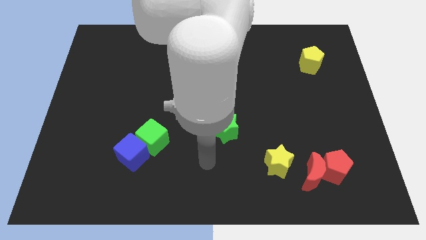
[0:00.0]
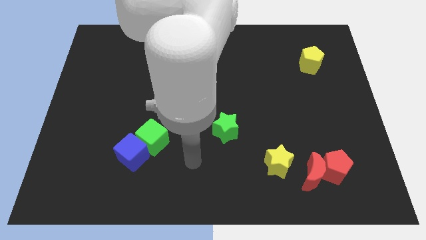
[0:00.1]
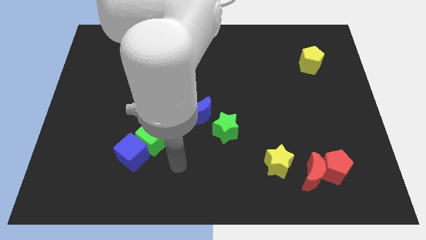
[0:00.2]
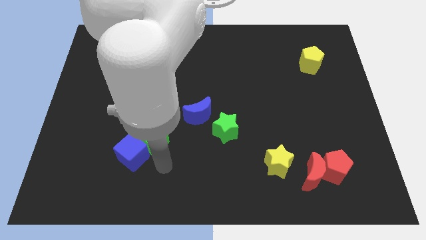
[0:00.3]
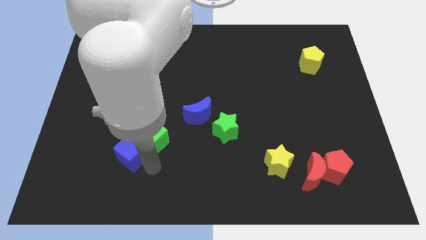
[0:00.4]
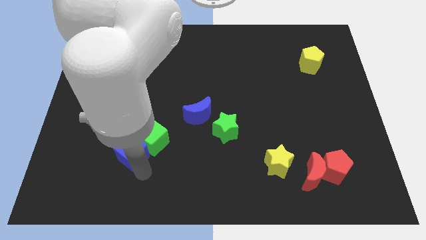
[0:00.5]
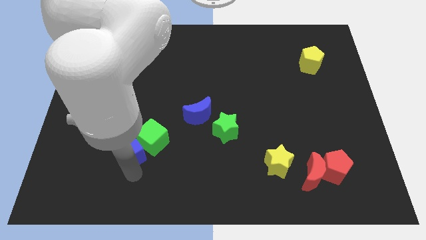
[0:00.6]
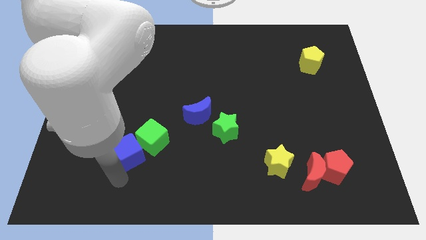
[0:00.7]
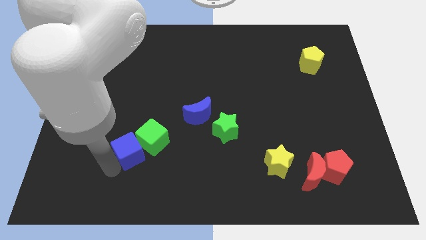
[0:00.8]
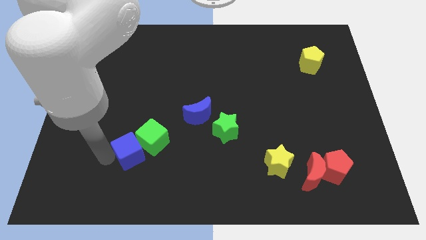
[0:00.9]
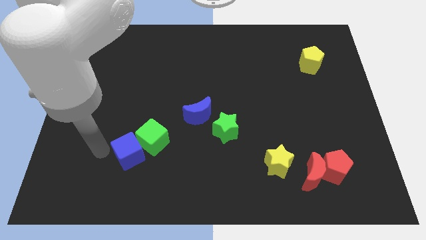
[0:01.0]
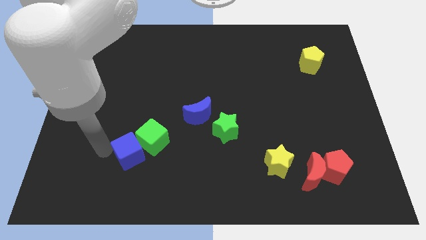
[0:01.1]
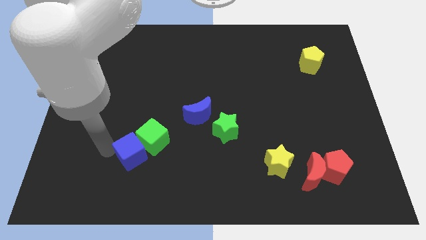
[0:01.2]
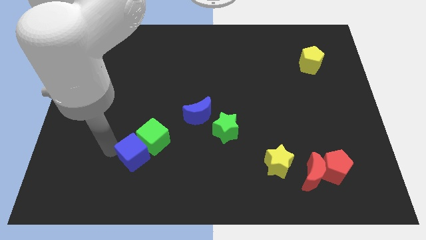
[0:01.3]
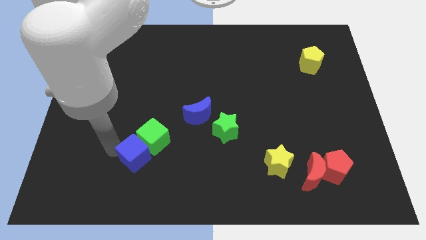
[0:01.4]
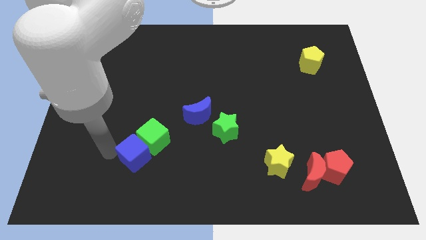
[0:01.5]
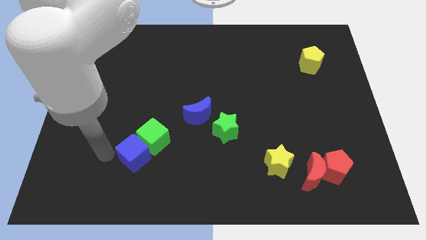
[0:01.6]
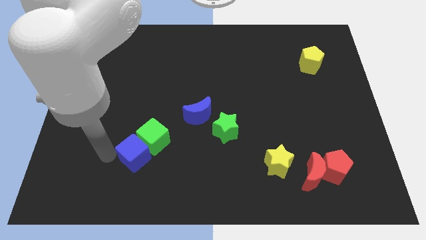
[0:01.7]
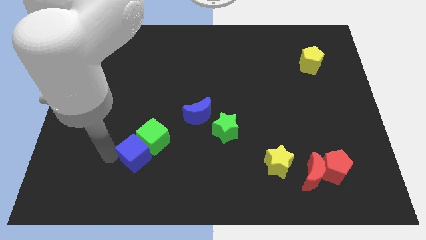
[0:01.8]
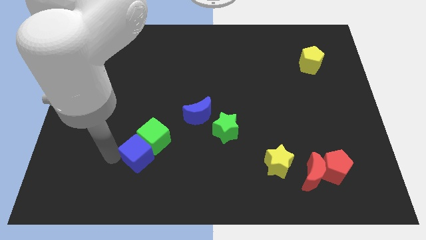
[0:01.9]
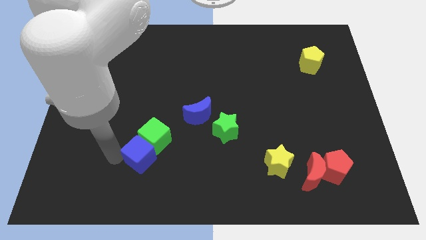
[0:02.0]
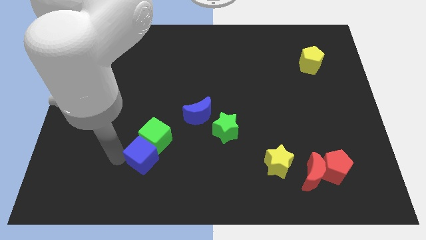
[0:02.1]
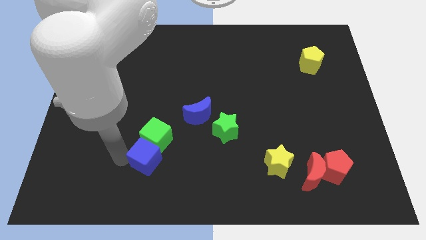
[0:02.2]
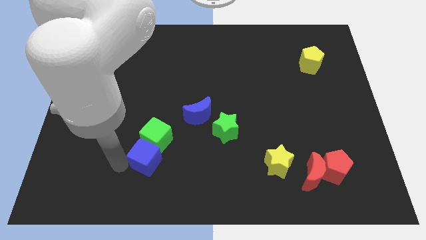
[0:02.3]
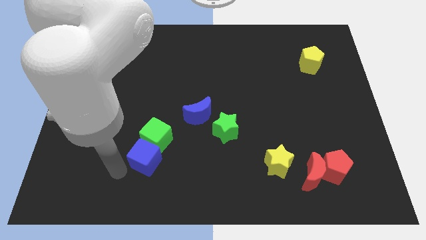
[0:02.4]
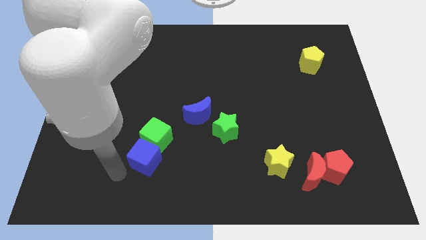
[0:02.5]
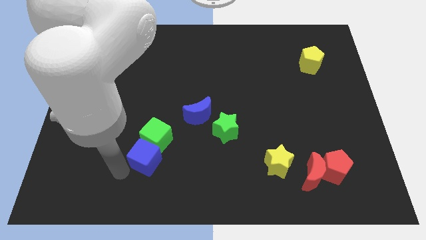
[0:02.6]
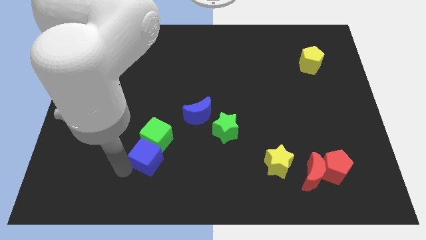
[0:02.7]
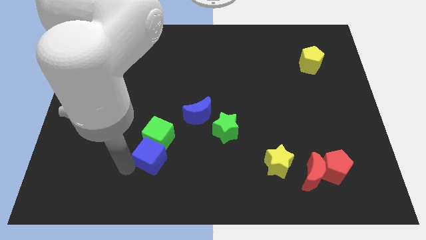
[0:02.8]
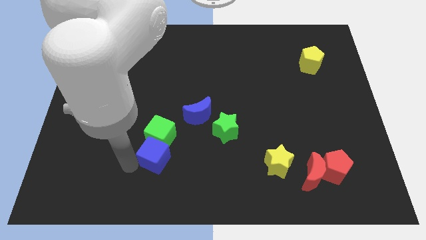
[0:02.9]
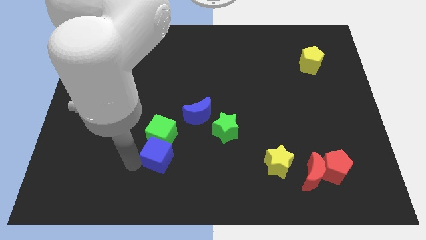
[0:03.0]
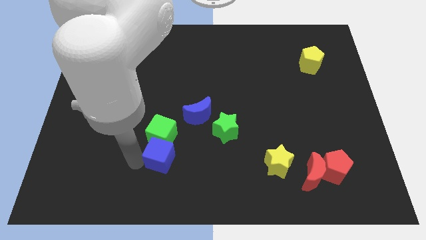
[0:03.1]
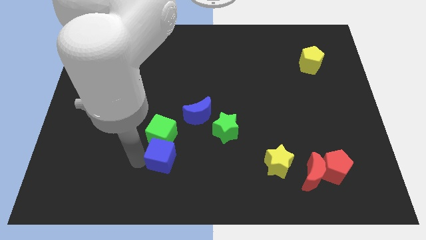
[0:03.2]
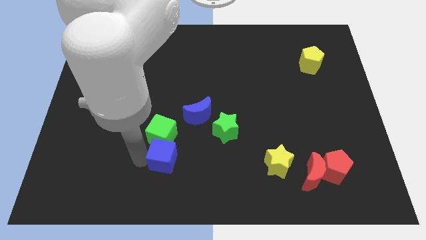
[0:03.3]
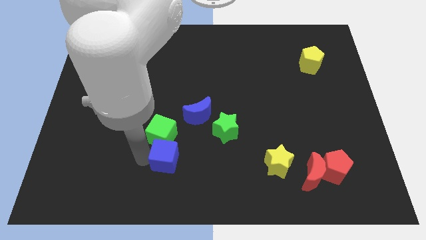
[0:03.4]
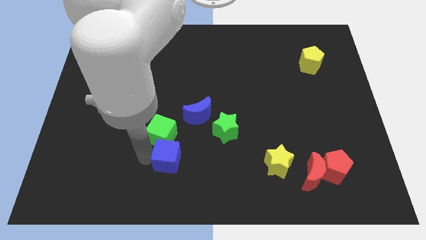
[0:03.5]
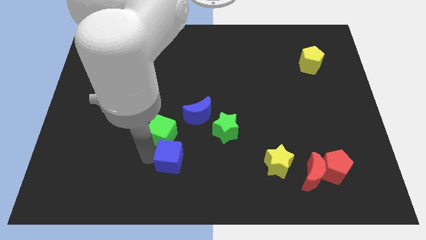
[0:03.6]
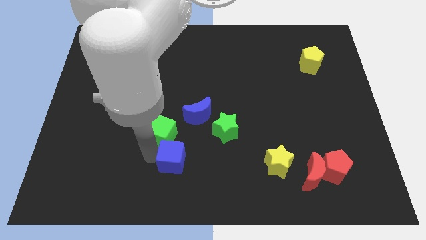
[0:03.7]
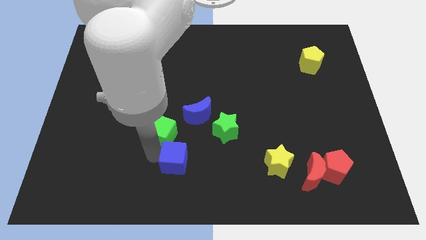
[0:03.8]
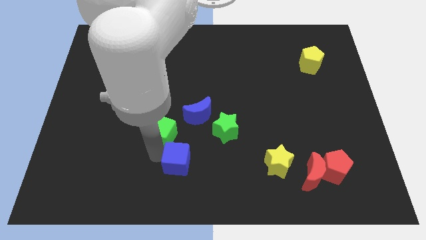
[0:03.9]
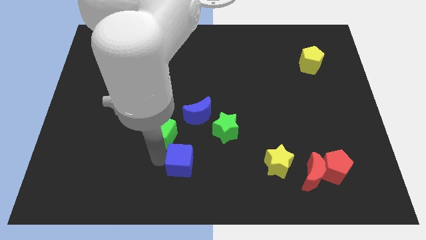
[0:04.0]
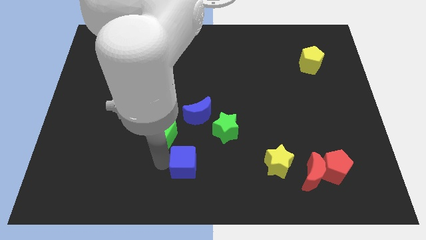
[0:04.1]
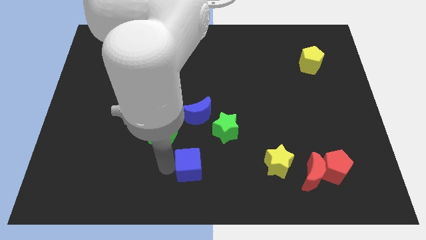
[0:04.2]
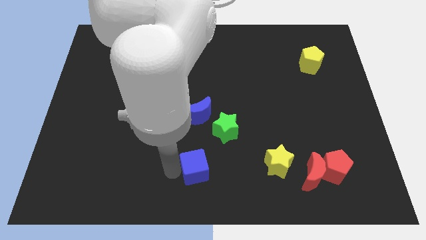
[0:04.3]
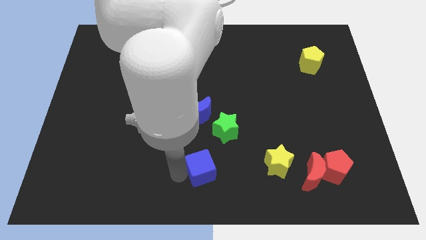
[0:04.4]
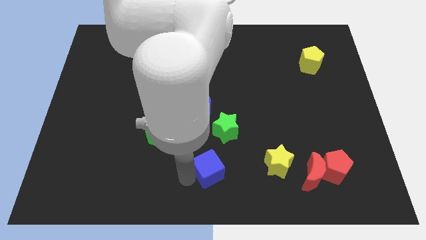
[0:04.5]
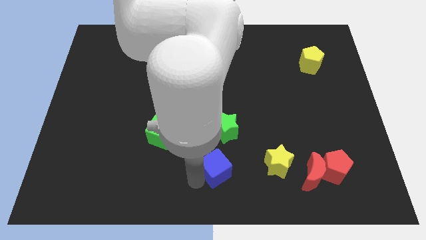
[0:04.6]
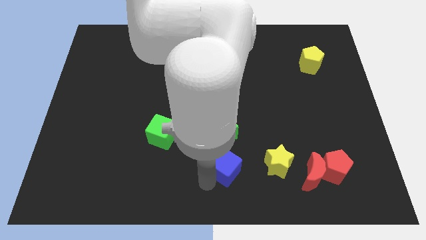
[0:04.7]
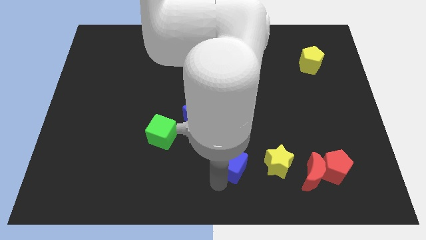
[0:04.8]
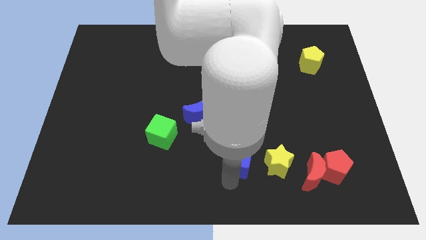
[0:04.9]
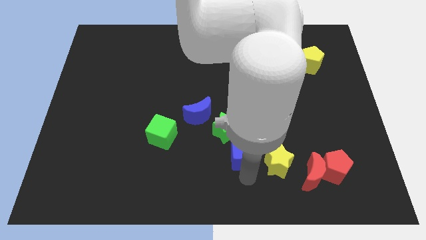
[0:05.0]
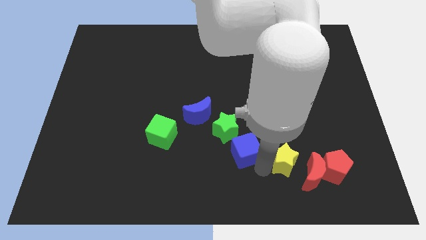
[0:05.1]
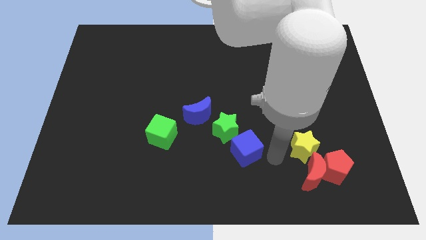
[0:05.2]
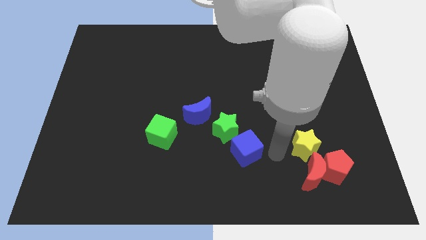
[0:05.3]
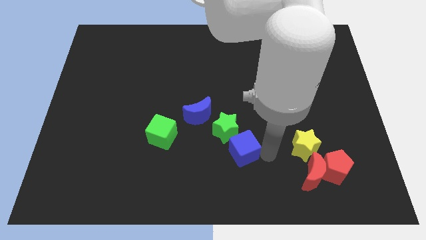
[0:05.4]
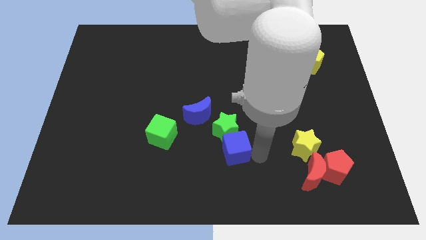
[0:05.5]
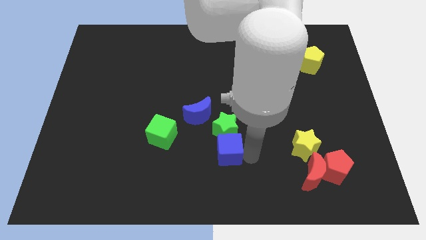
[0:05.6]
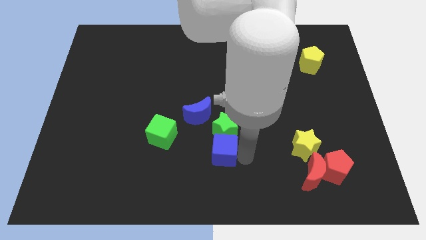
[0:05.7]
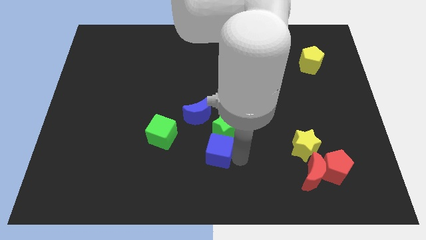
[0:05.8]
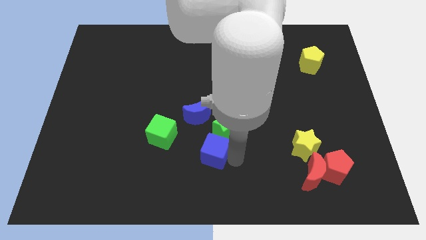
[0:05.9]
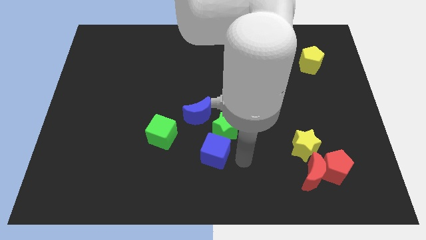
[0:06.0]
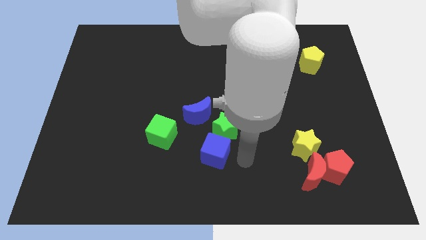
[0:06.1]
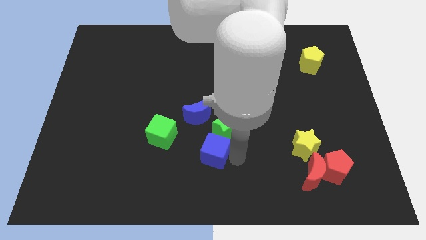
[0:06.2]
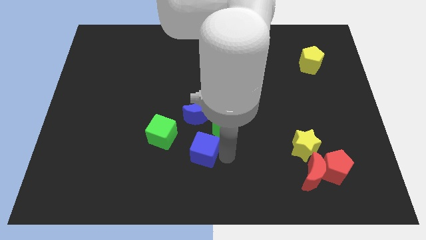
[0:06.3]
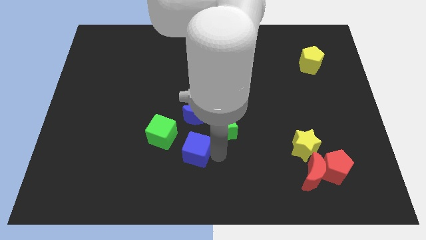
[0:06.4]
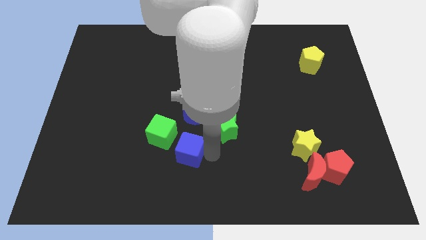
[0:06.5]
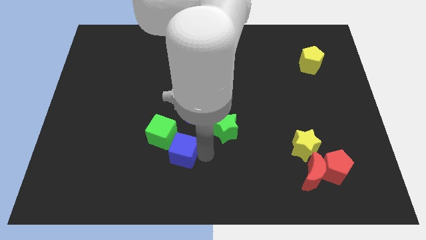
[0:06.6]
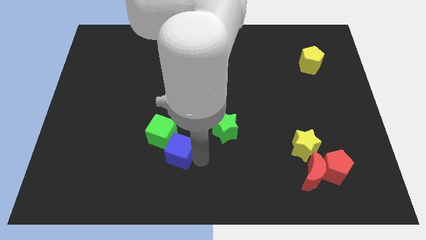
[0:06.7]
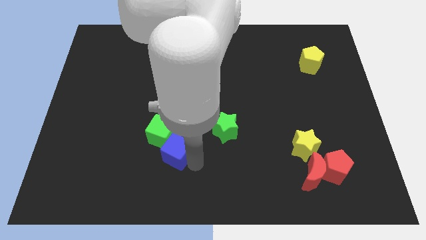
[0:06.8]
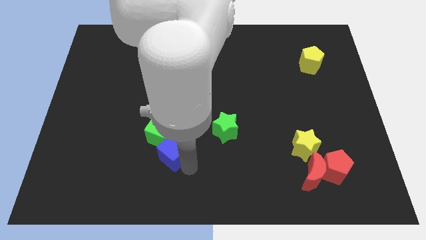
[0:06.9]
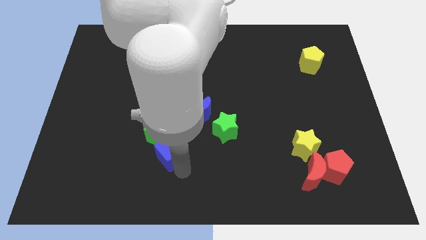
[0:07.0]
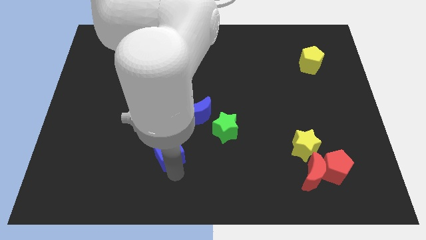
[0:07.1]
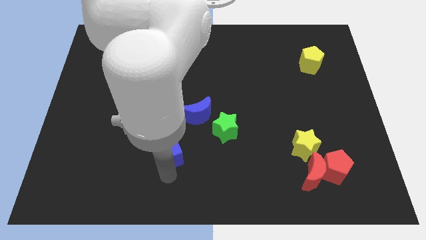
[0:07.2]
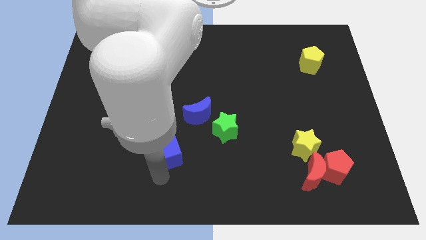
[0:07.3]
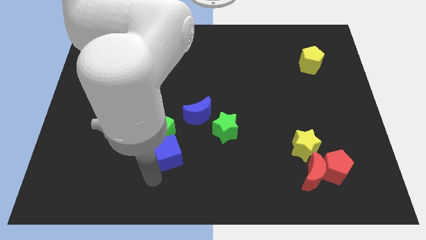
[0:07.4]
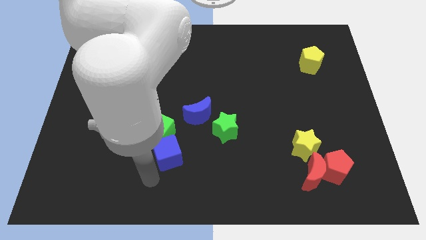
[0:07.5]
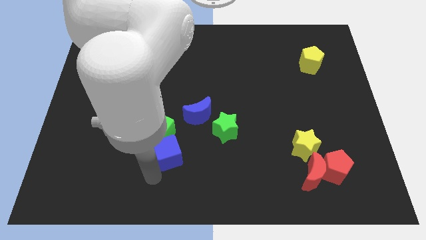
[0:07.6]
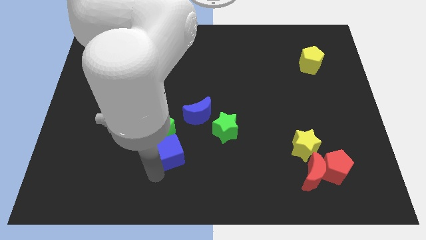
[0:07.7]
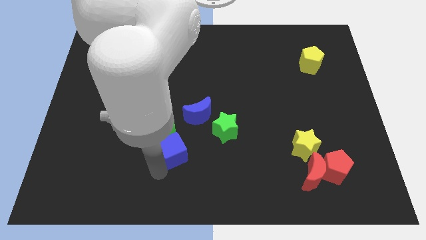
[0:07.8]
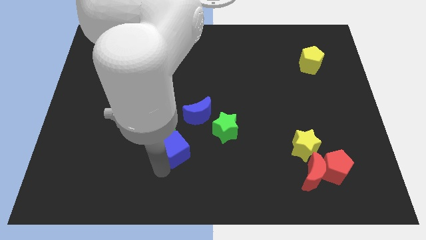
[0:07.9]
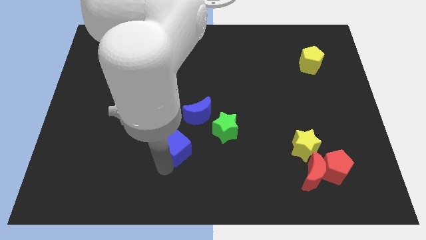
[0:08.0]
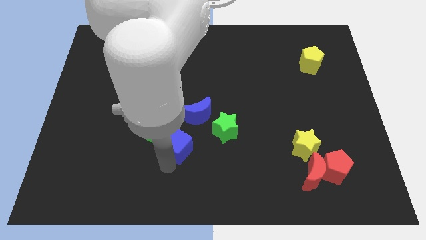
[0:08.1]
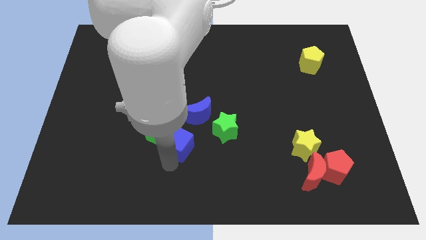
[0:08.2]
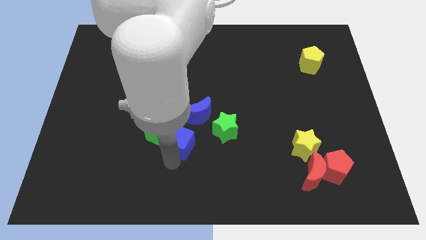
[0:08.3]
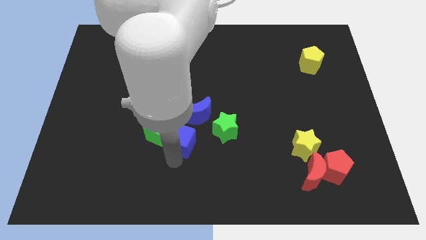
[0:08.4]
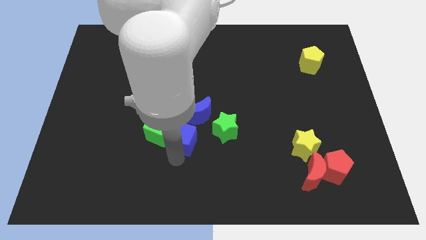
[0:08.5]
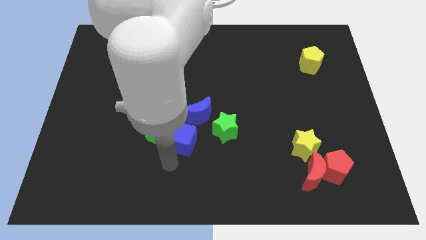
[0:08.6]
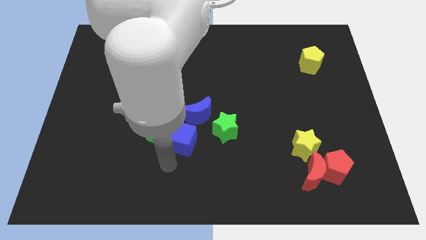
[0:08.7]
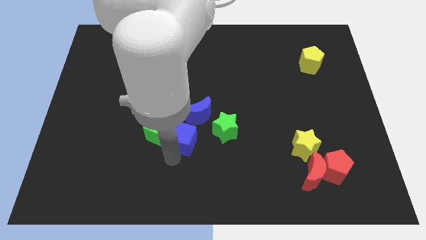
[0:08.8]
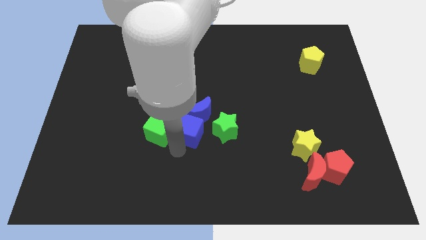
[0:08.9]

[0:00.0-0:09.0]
move the blue cube towards the blue moon
